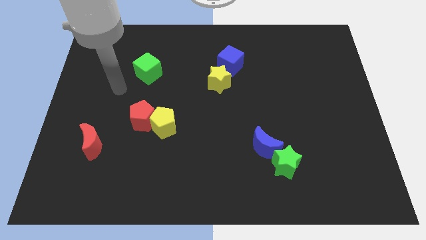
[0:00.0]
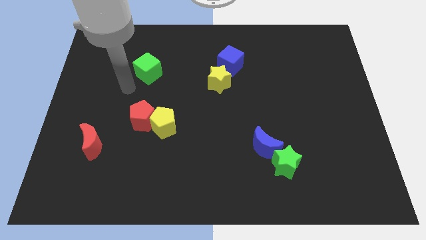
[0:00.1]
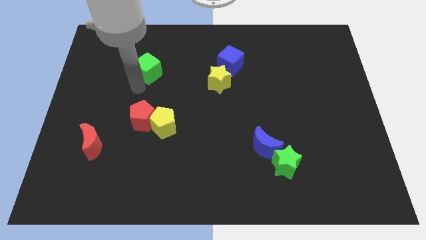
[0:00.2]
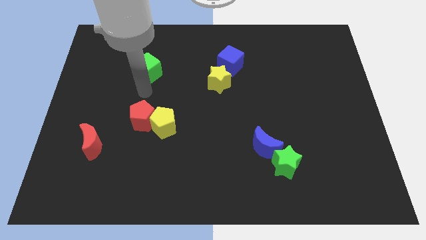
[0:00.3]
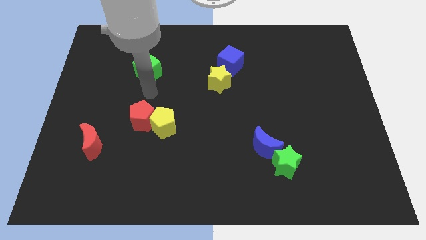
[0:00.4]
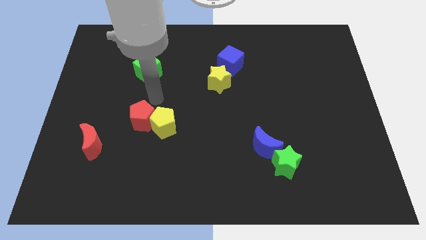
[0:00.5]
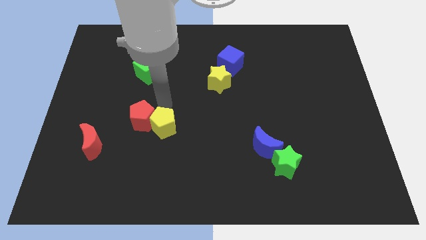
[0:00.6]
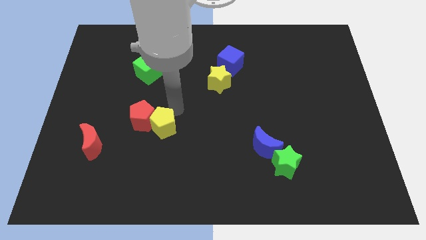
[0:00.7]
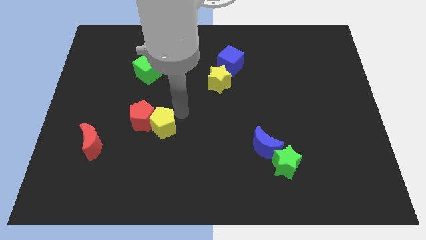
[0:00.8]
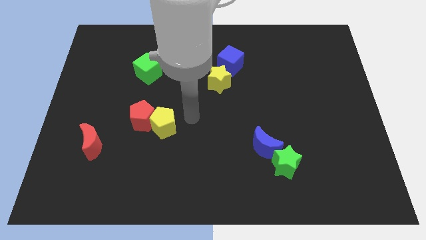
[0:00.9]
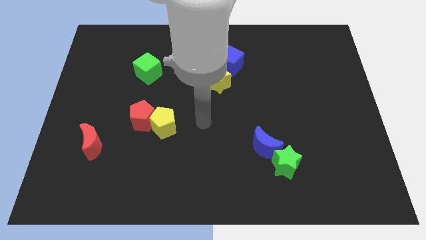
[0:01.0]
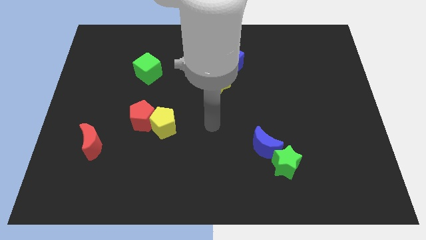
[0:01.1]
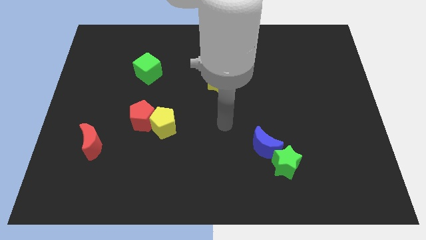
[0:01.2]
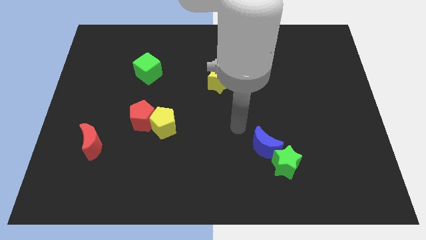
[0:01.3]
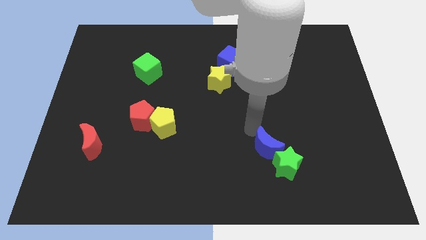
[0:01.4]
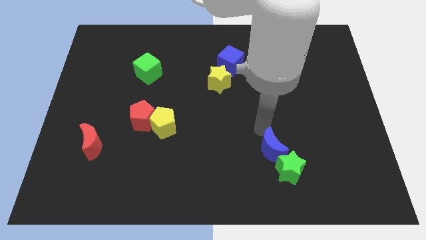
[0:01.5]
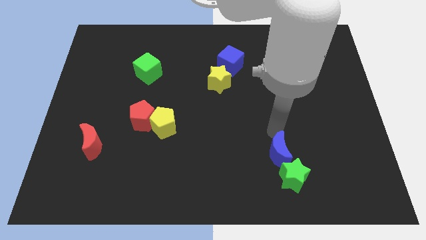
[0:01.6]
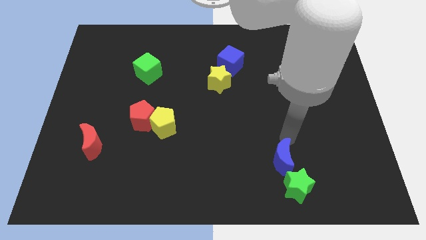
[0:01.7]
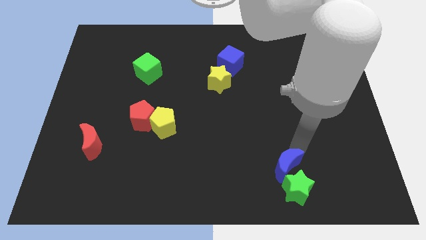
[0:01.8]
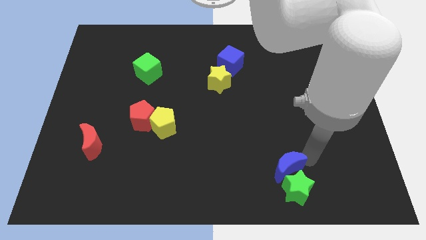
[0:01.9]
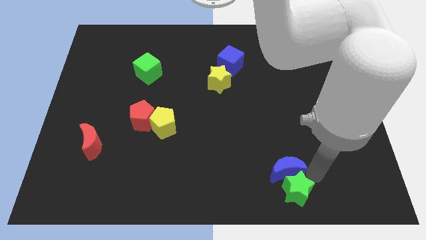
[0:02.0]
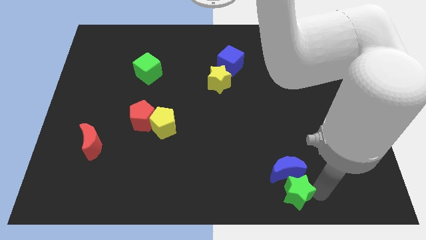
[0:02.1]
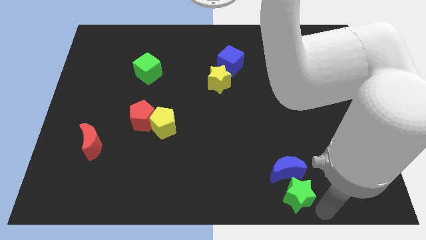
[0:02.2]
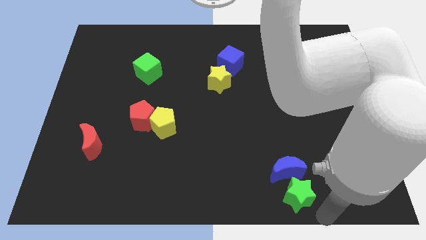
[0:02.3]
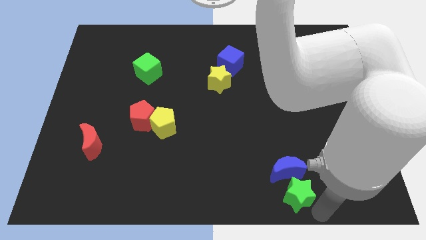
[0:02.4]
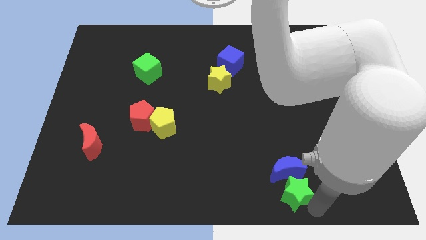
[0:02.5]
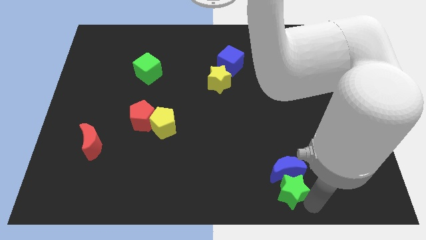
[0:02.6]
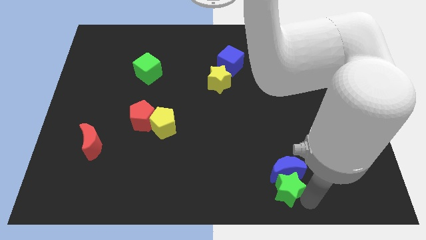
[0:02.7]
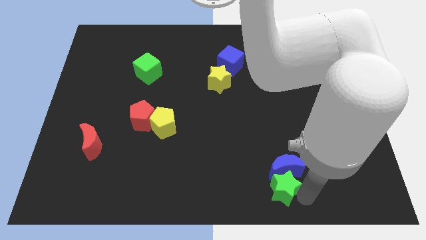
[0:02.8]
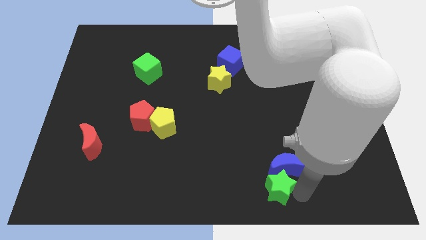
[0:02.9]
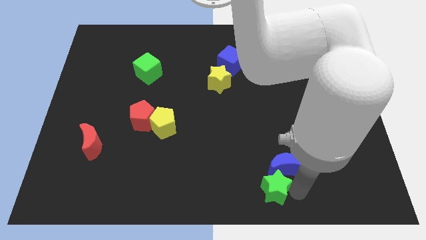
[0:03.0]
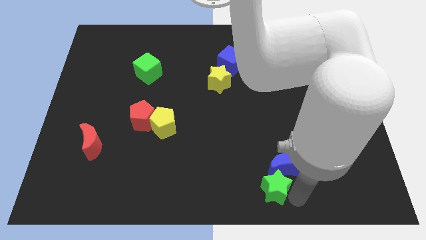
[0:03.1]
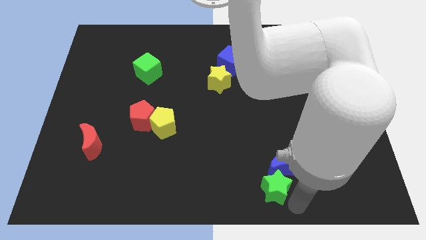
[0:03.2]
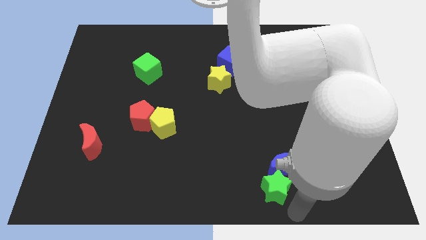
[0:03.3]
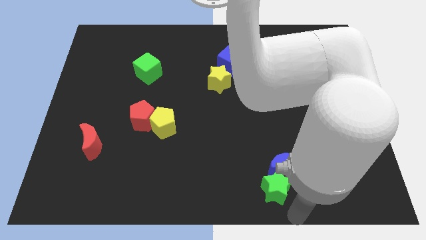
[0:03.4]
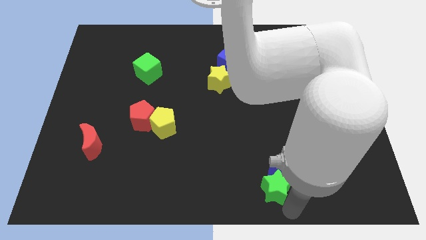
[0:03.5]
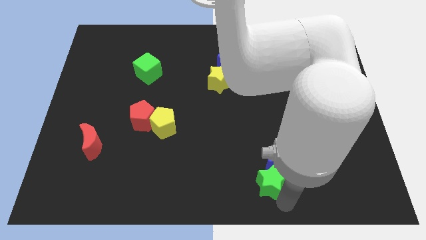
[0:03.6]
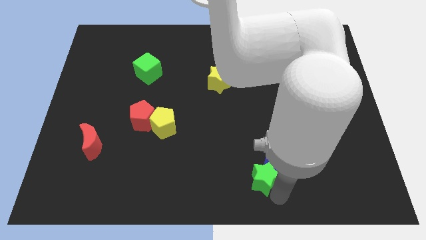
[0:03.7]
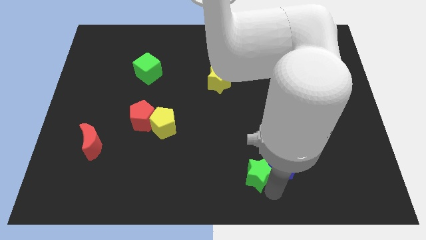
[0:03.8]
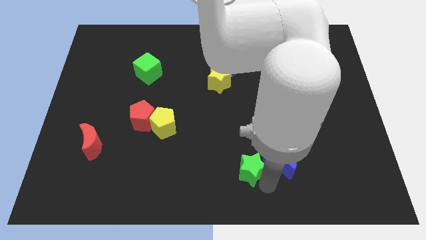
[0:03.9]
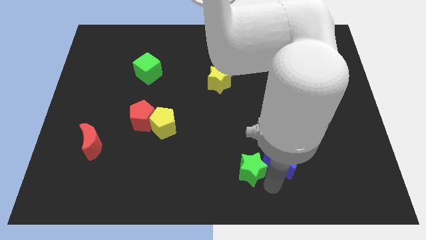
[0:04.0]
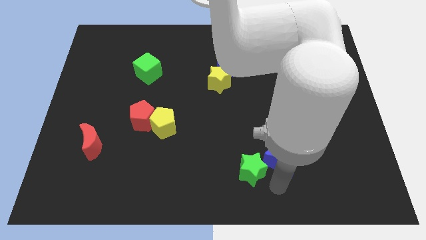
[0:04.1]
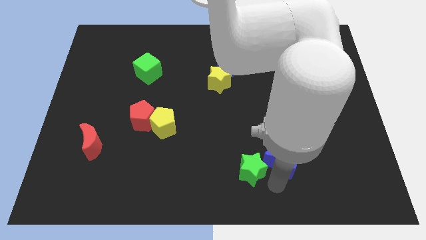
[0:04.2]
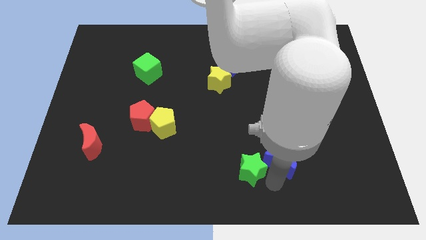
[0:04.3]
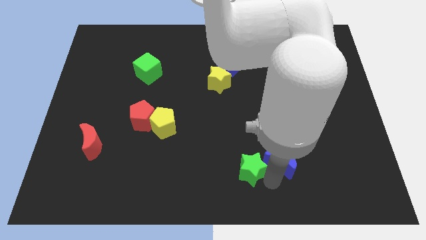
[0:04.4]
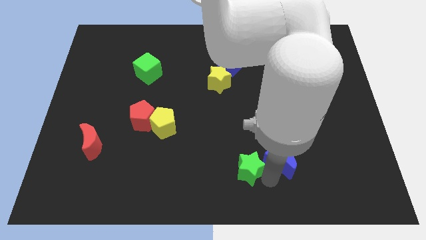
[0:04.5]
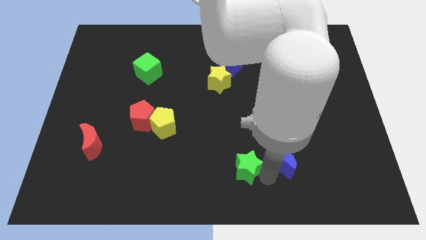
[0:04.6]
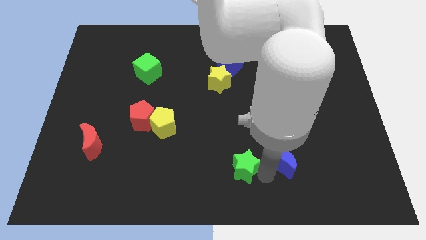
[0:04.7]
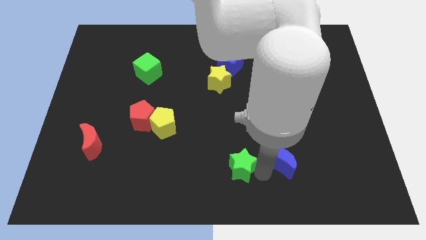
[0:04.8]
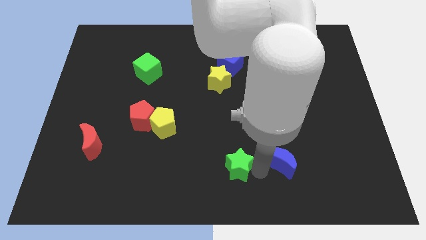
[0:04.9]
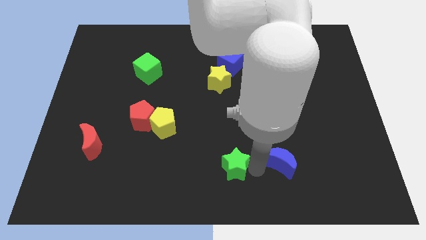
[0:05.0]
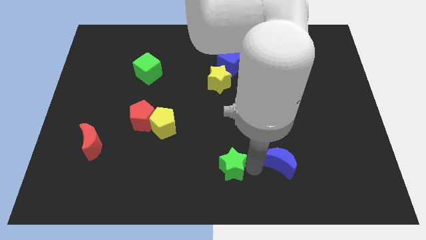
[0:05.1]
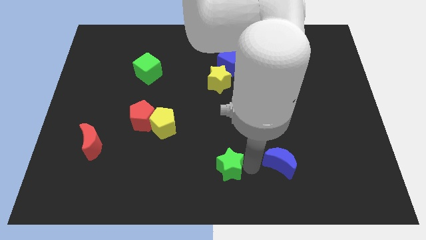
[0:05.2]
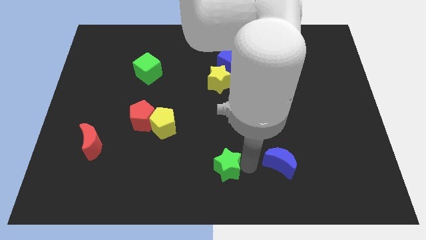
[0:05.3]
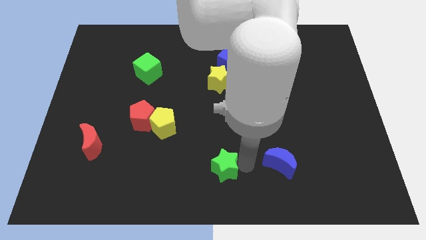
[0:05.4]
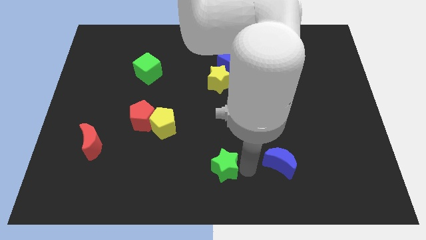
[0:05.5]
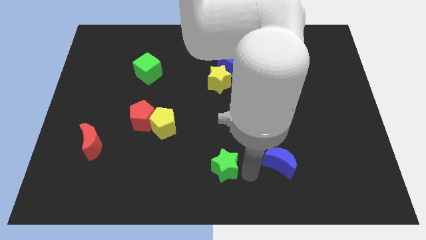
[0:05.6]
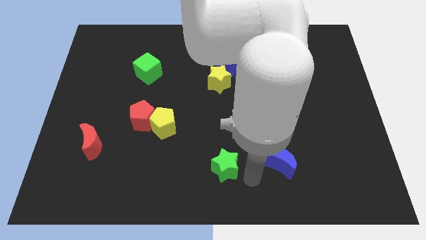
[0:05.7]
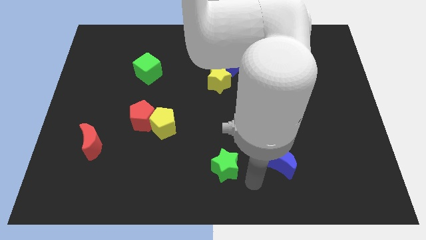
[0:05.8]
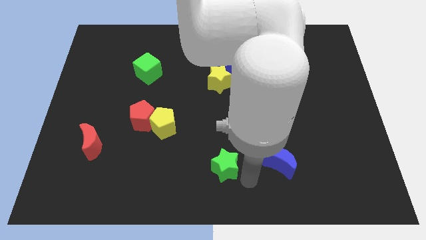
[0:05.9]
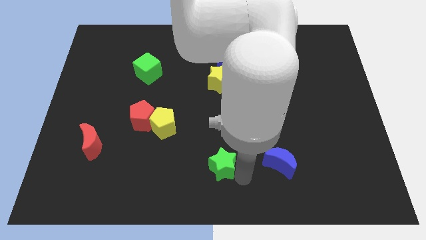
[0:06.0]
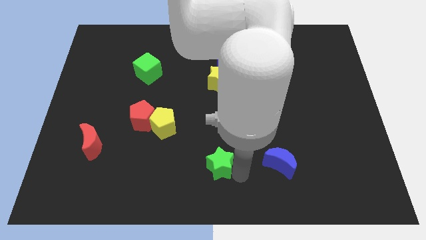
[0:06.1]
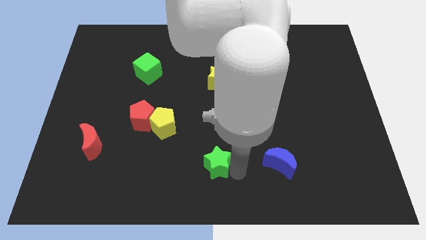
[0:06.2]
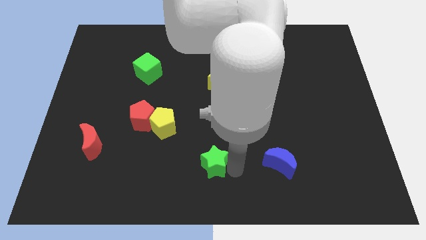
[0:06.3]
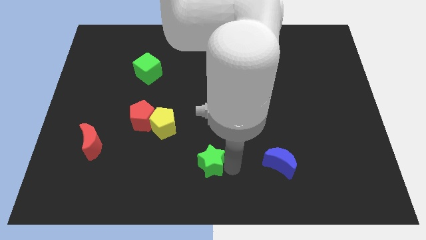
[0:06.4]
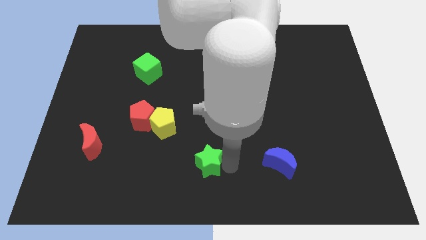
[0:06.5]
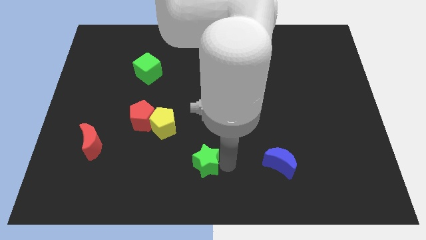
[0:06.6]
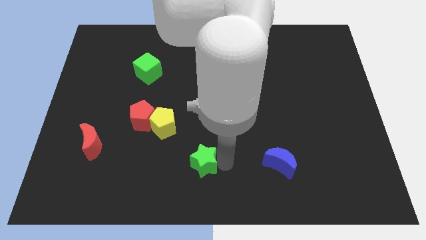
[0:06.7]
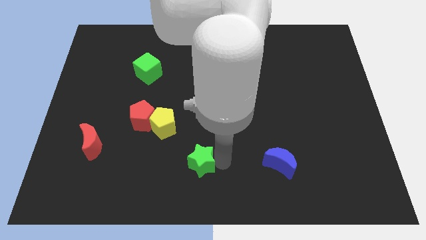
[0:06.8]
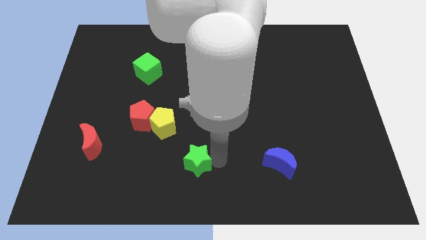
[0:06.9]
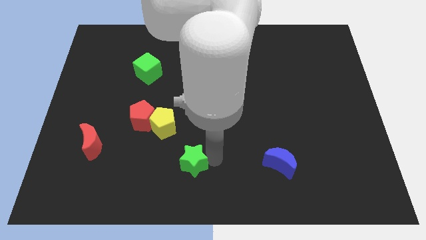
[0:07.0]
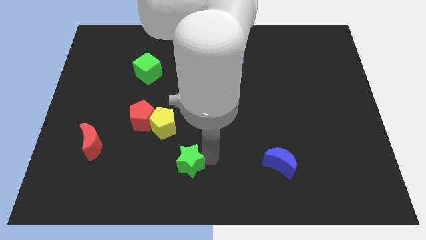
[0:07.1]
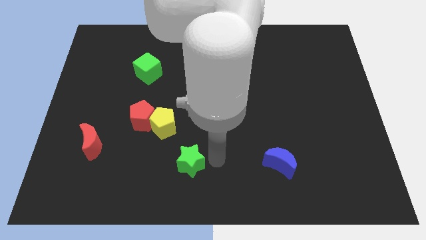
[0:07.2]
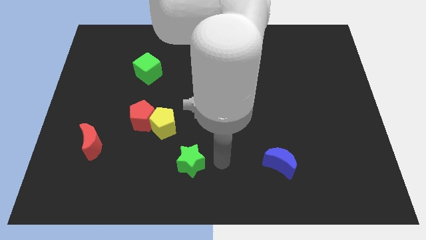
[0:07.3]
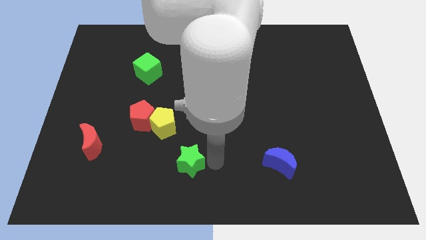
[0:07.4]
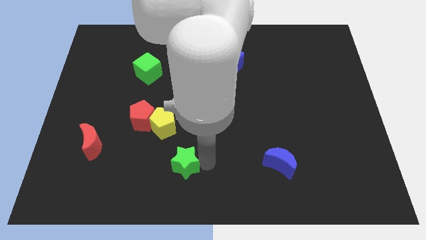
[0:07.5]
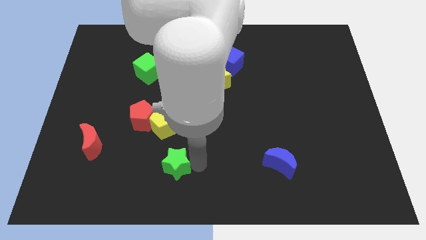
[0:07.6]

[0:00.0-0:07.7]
slide the green star to the bottom side of the yellow pentagon
